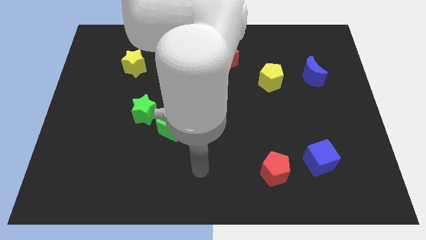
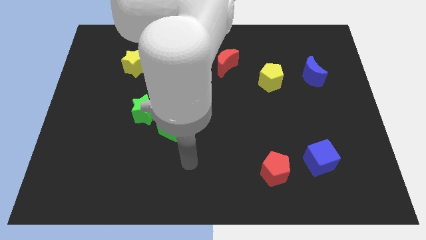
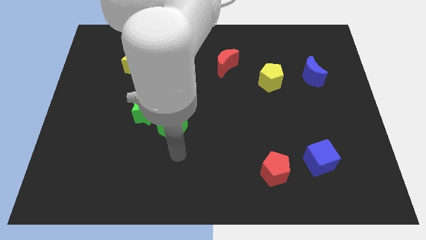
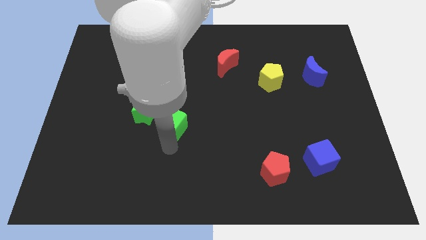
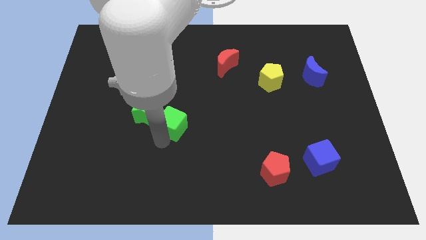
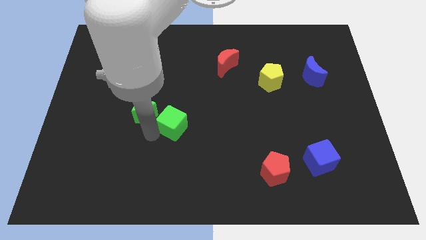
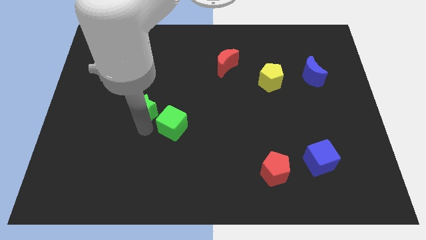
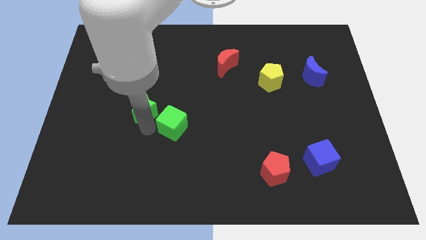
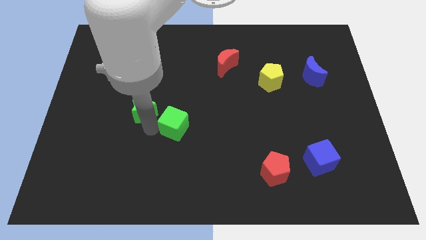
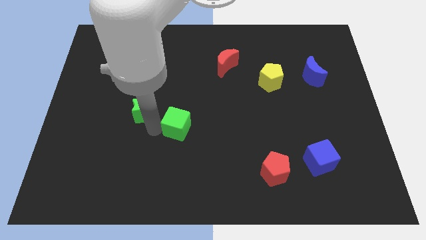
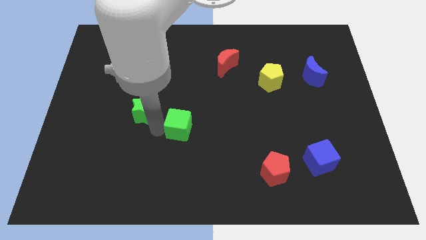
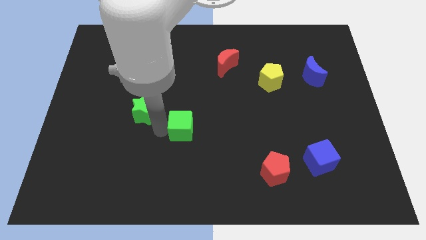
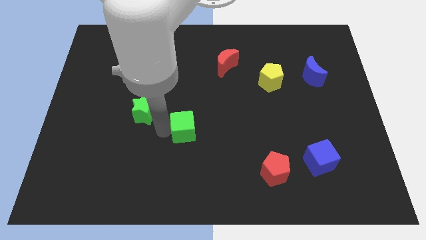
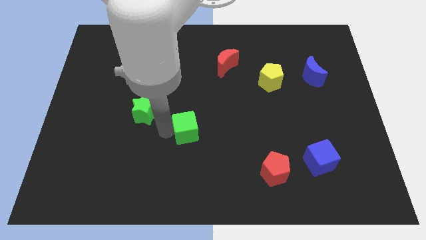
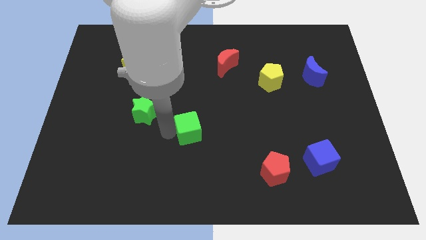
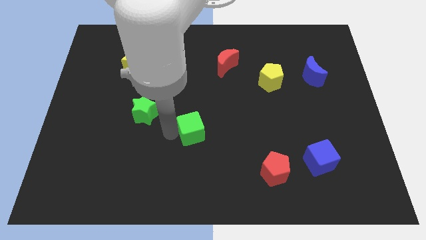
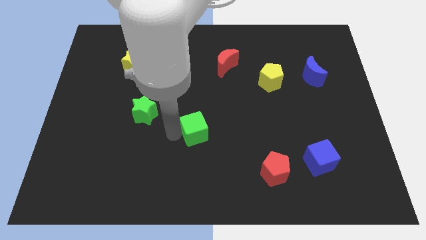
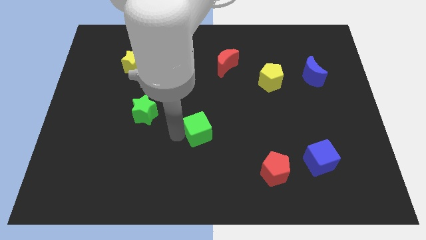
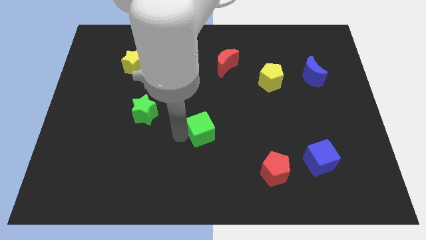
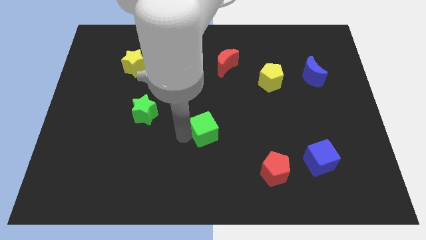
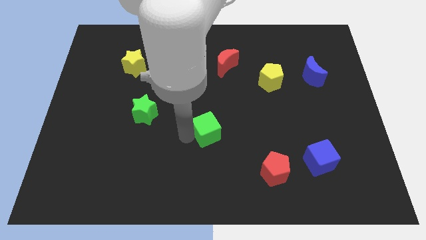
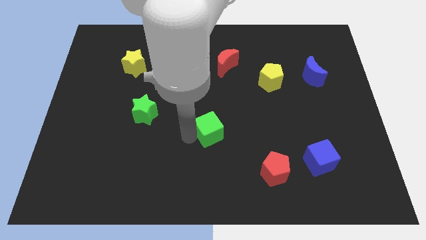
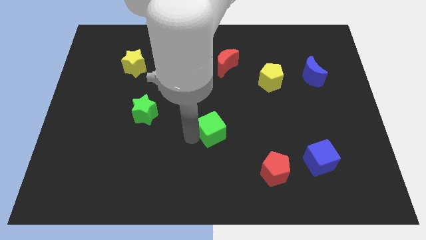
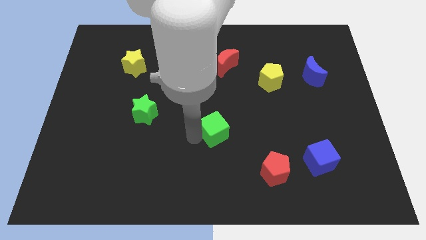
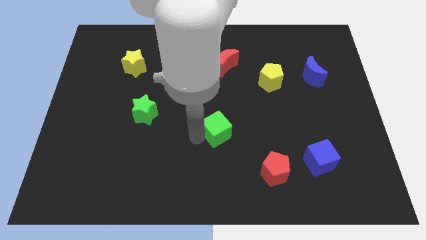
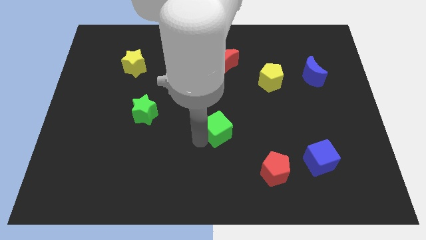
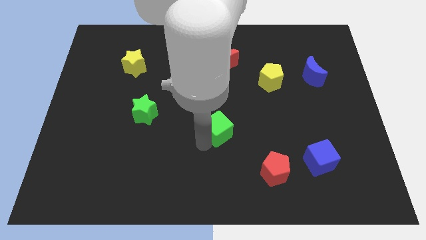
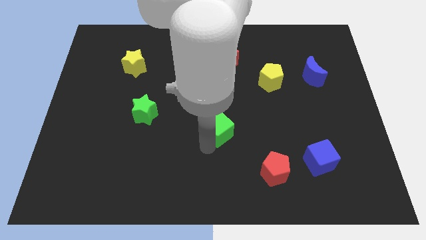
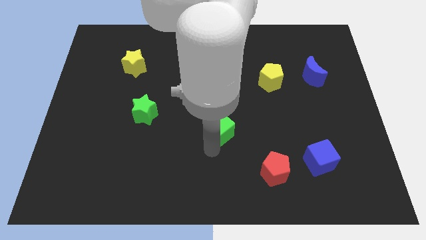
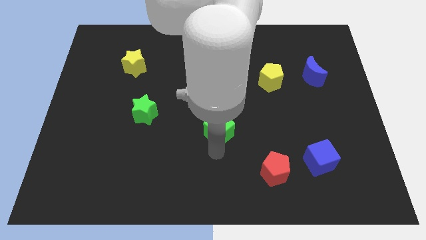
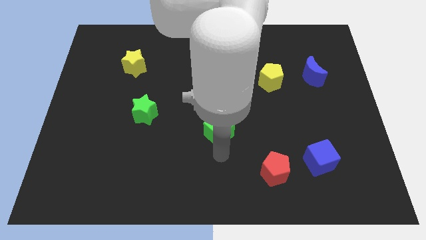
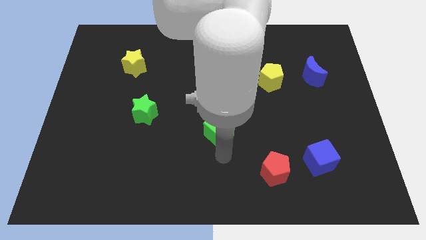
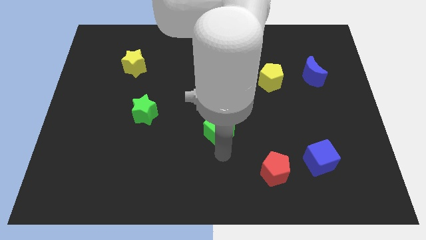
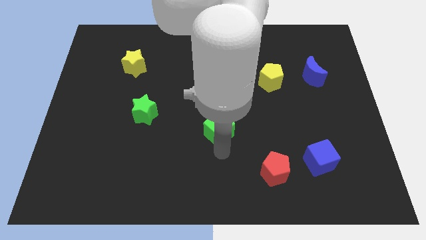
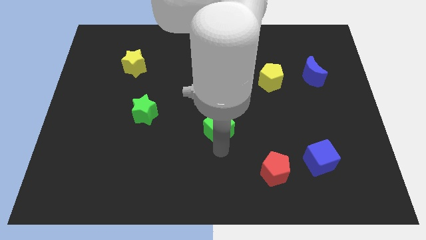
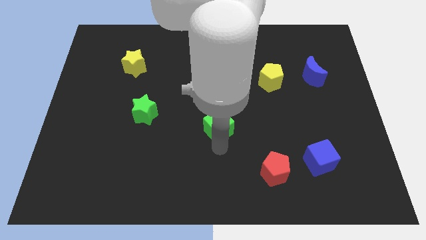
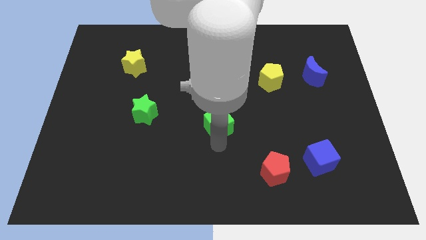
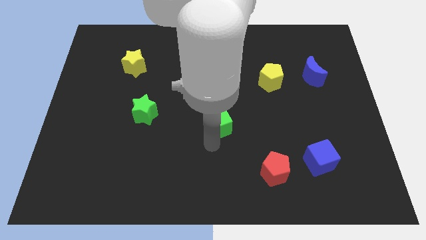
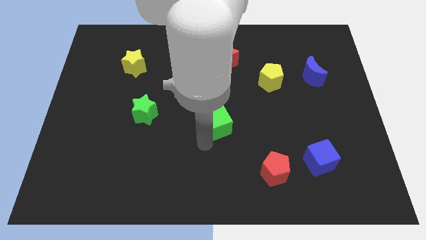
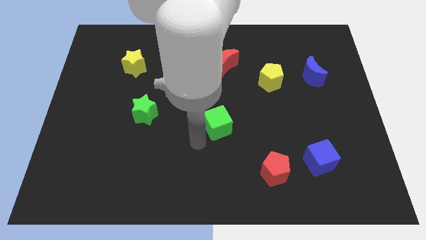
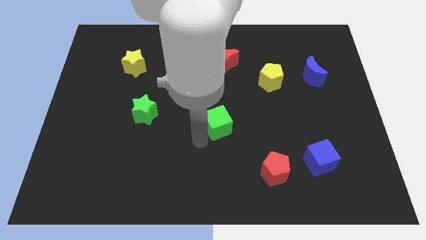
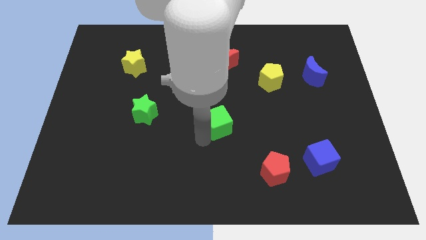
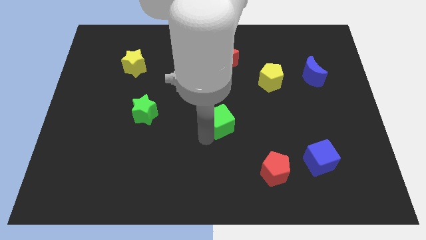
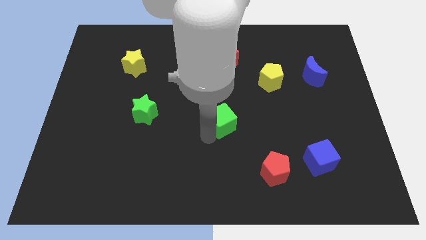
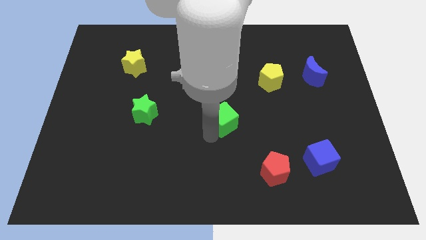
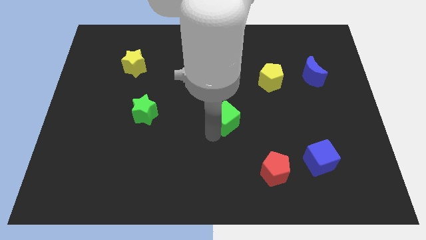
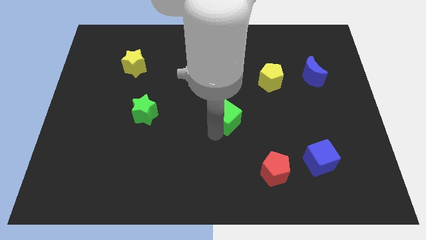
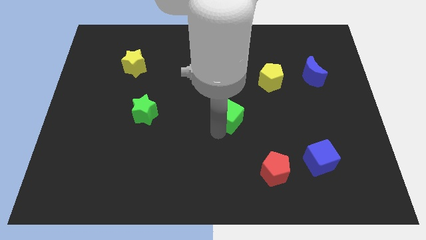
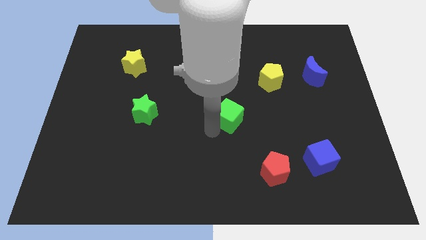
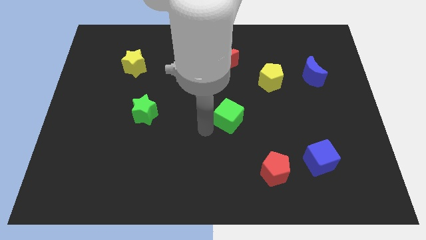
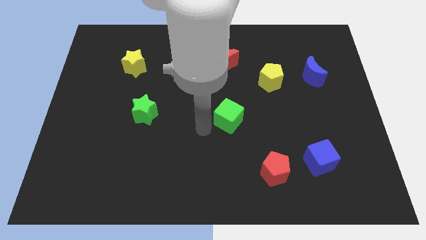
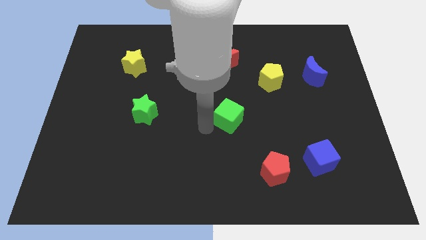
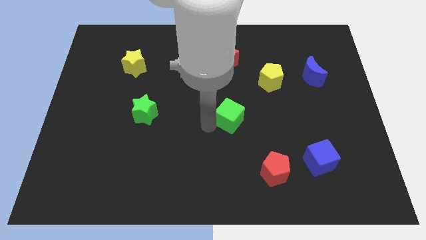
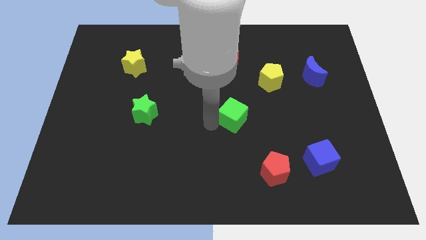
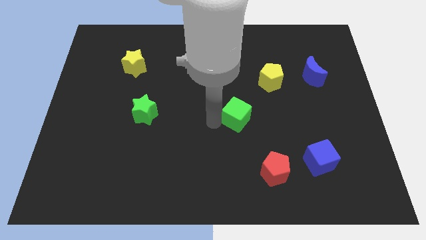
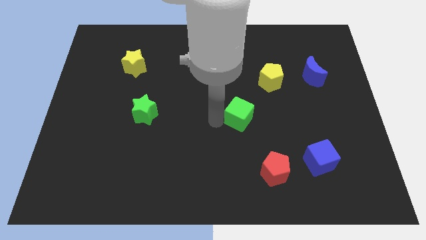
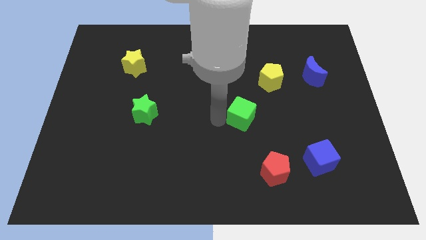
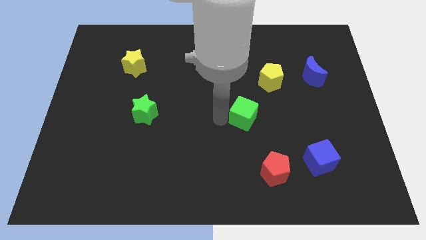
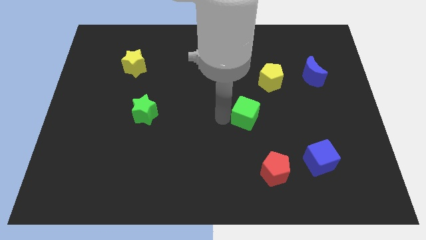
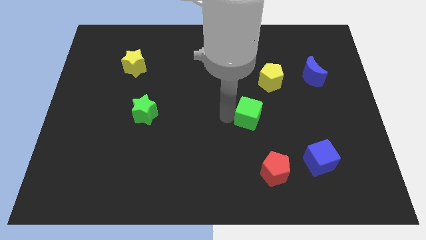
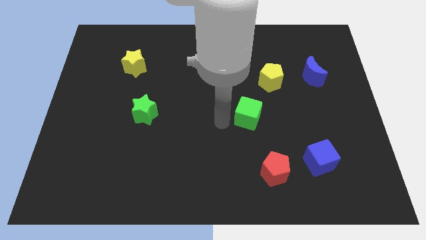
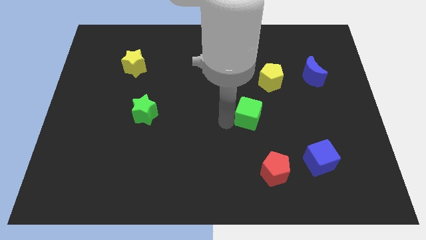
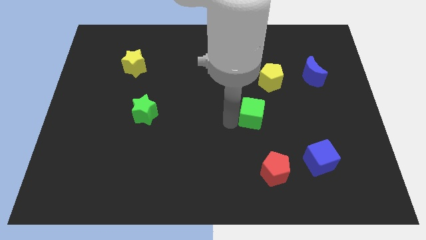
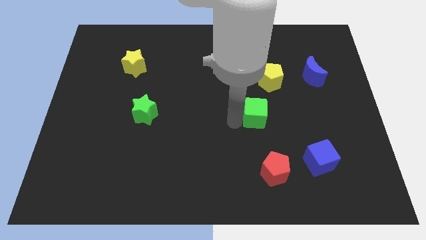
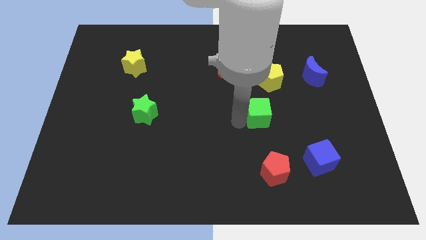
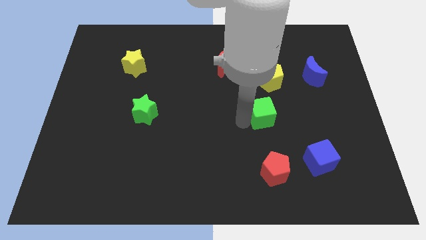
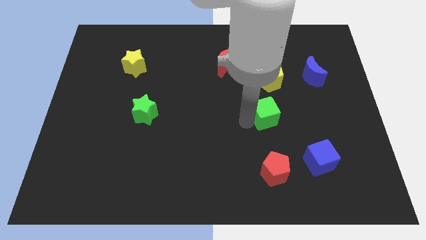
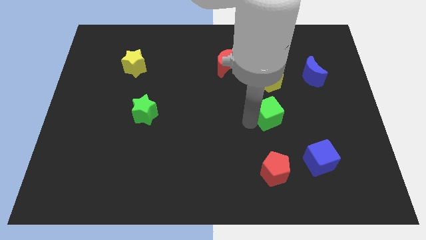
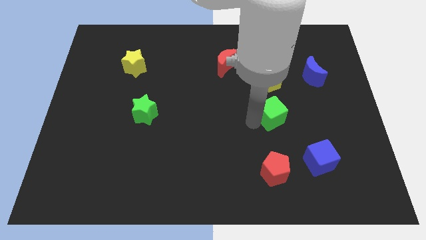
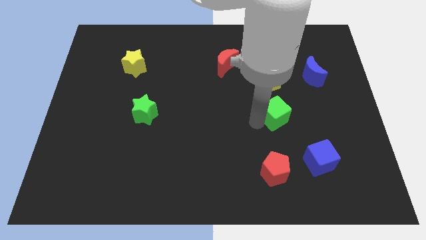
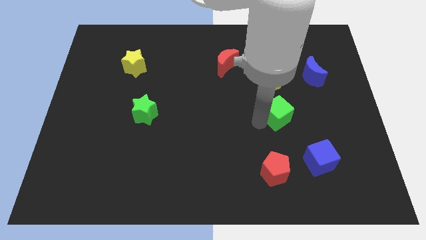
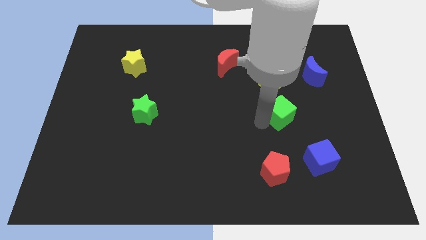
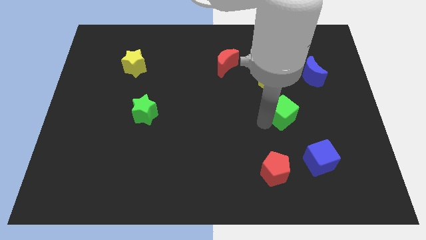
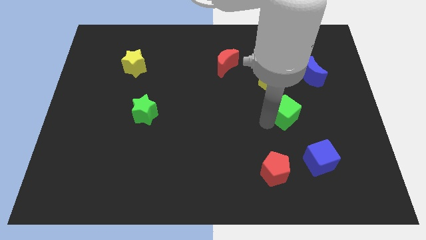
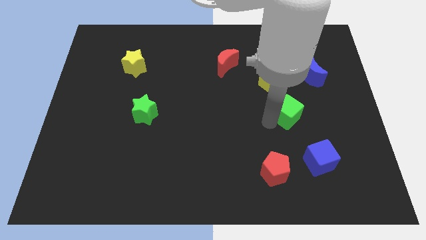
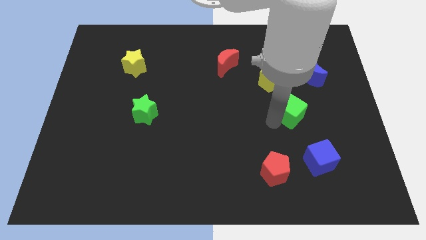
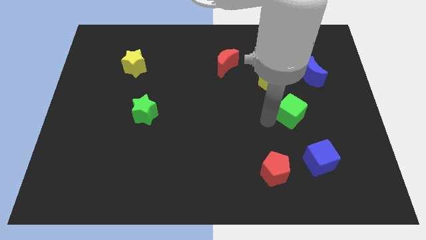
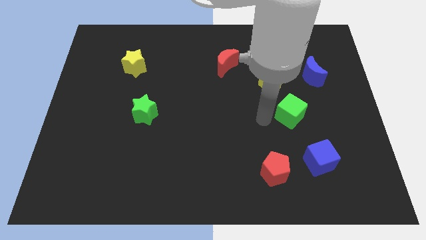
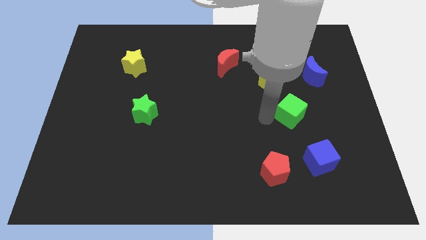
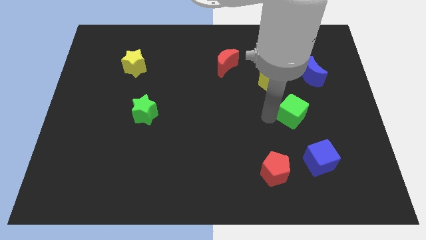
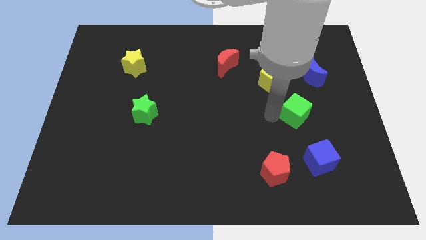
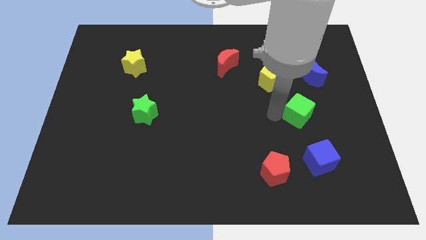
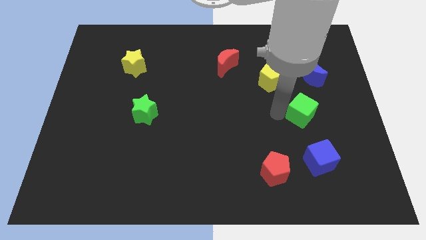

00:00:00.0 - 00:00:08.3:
push the green cube to the bottom of the blue moon
